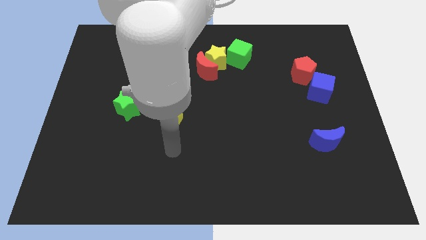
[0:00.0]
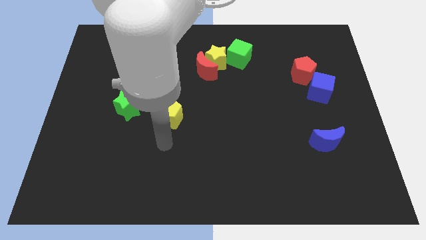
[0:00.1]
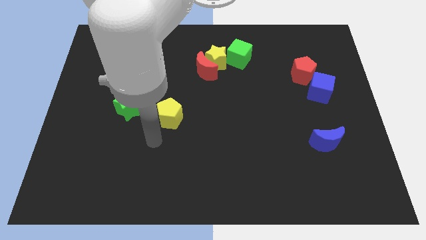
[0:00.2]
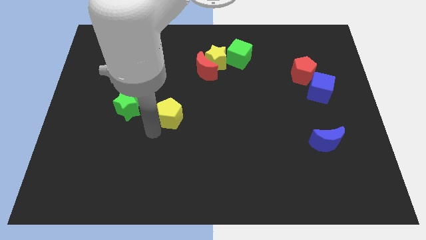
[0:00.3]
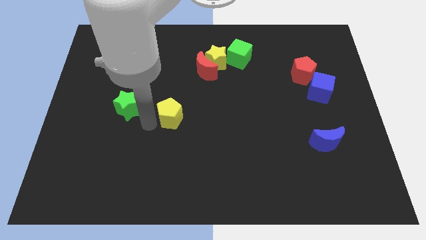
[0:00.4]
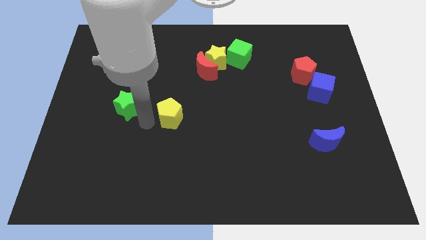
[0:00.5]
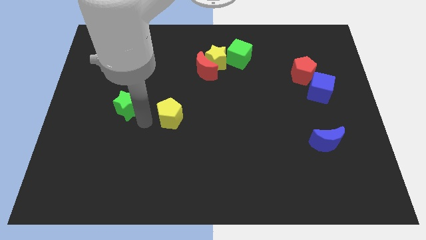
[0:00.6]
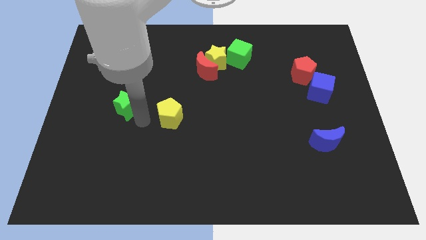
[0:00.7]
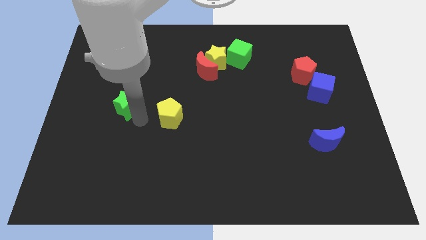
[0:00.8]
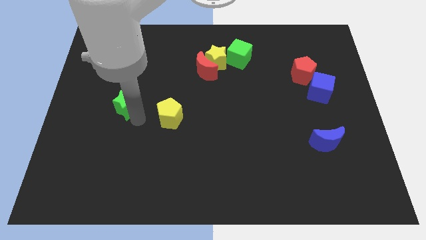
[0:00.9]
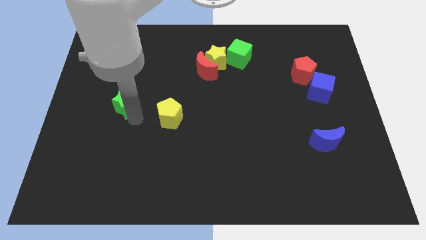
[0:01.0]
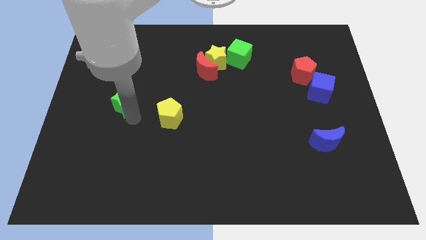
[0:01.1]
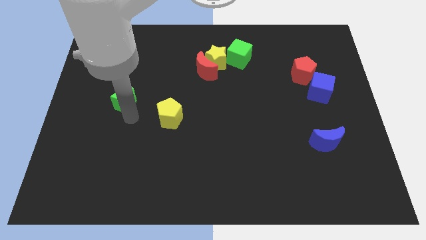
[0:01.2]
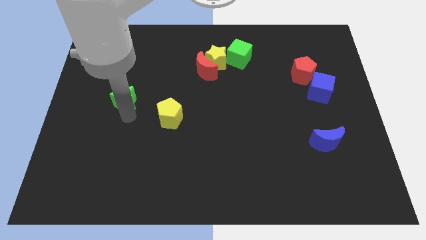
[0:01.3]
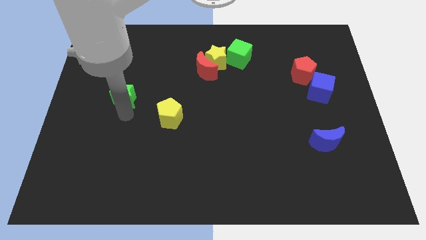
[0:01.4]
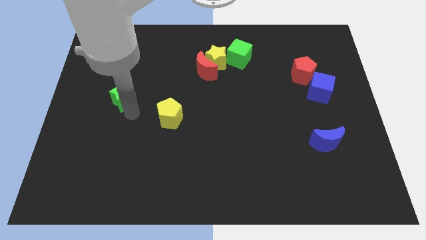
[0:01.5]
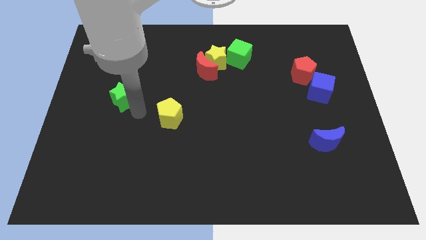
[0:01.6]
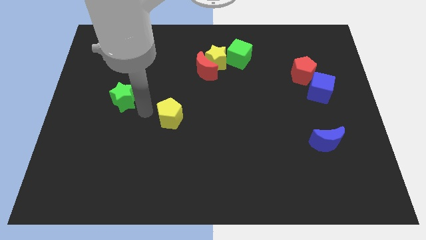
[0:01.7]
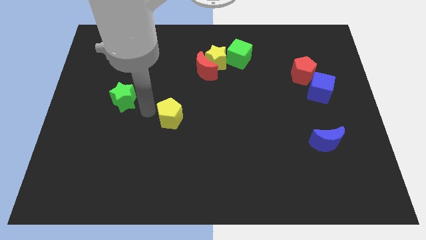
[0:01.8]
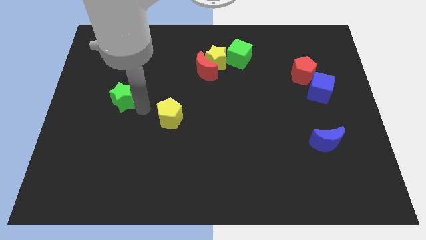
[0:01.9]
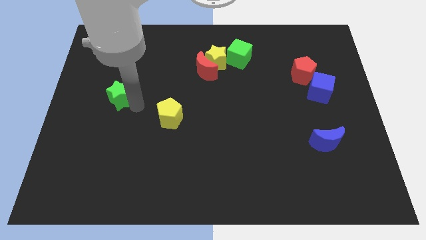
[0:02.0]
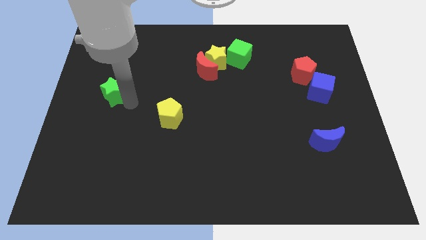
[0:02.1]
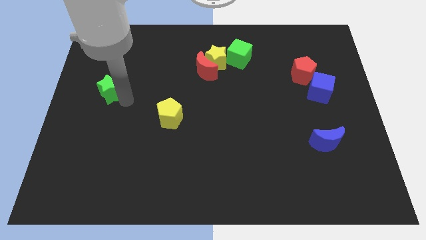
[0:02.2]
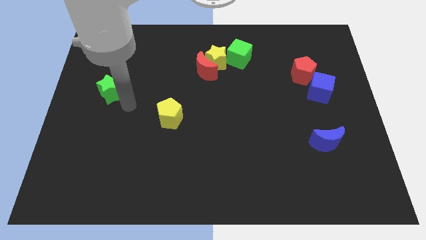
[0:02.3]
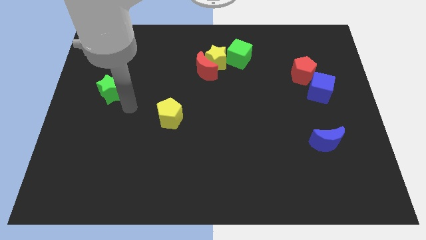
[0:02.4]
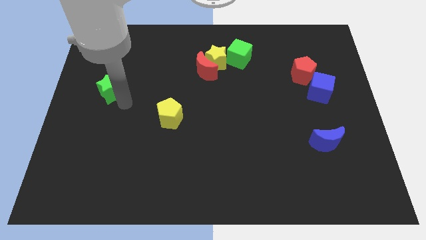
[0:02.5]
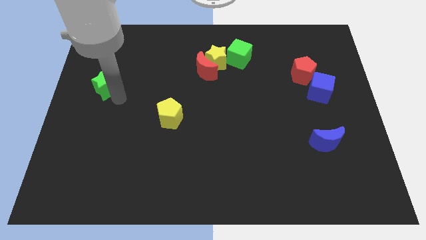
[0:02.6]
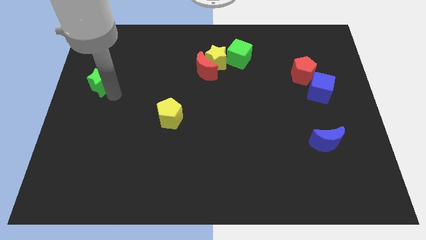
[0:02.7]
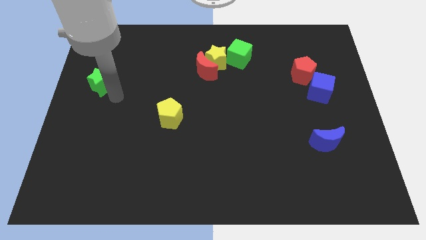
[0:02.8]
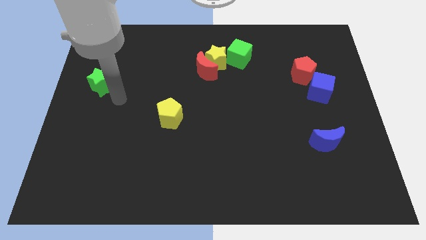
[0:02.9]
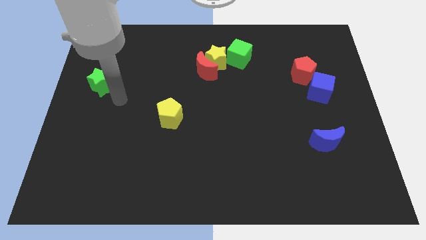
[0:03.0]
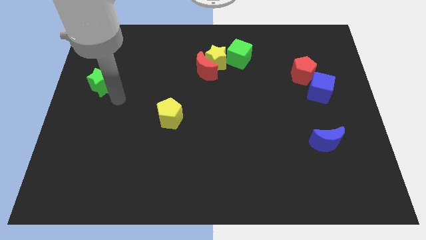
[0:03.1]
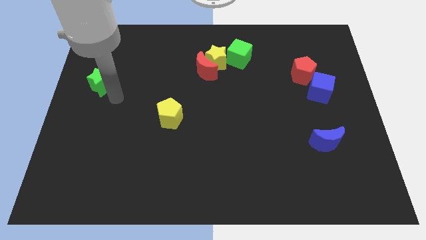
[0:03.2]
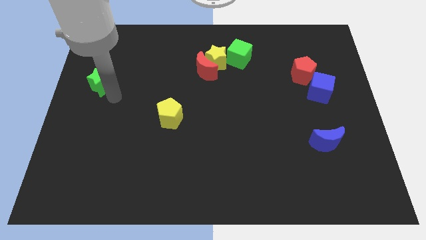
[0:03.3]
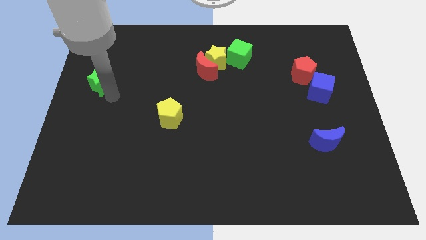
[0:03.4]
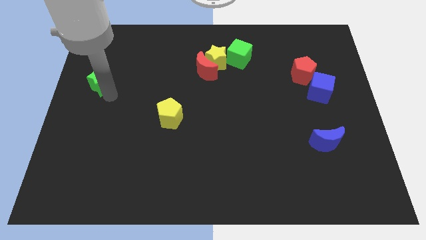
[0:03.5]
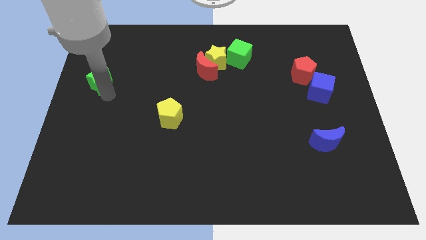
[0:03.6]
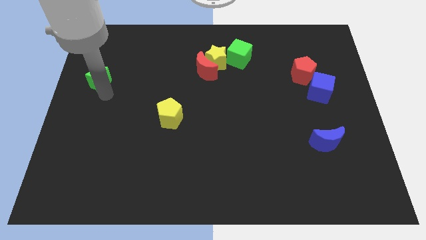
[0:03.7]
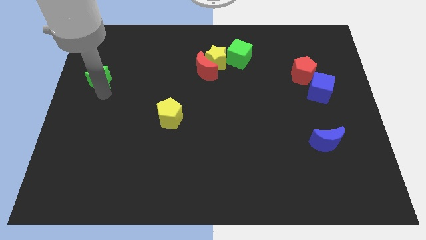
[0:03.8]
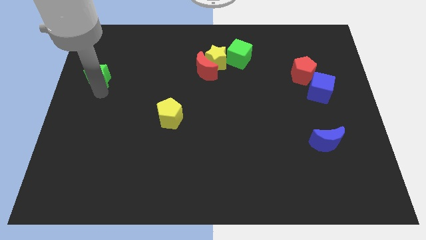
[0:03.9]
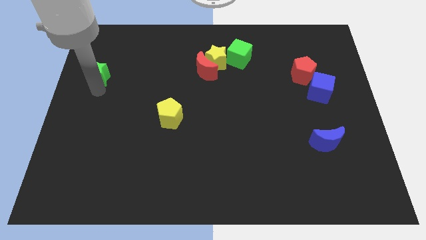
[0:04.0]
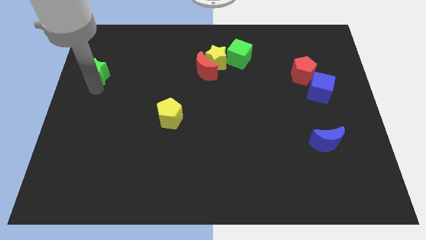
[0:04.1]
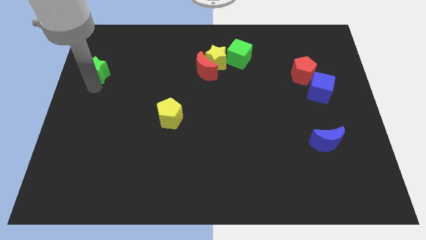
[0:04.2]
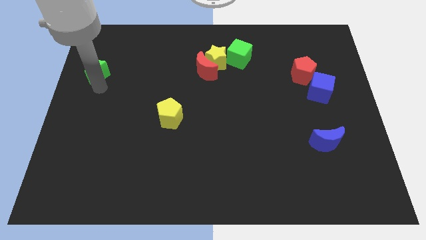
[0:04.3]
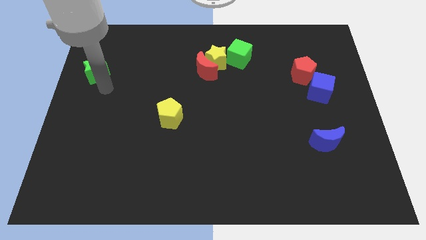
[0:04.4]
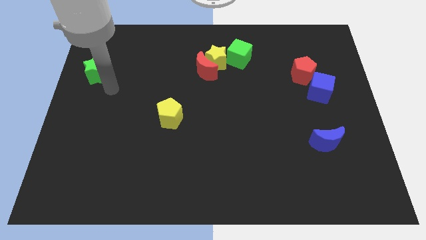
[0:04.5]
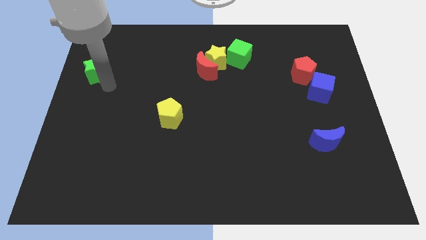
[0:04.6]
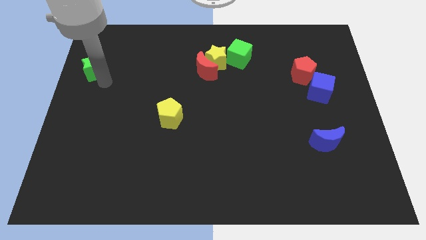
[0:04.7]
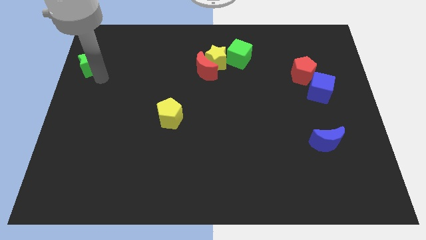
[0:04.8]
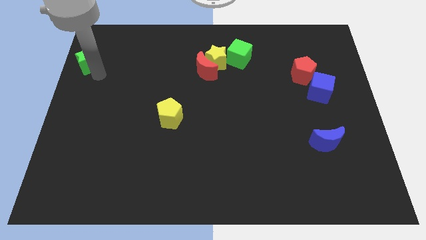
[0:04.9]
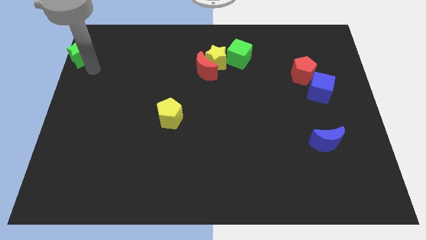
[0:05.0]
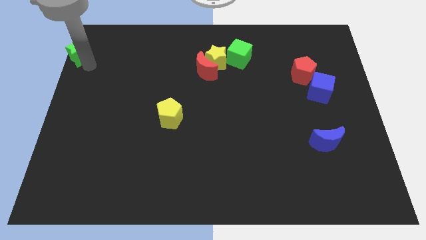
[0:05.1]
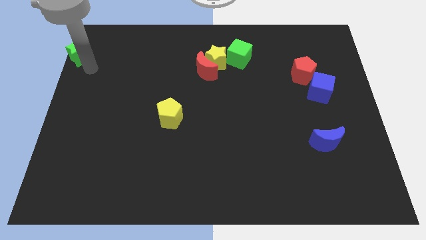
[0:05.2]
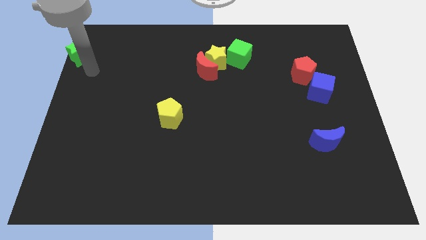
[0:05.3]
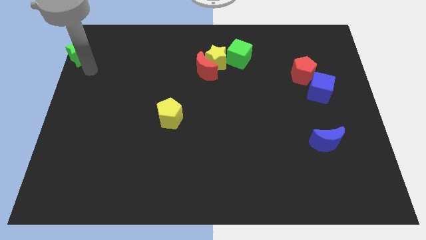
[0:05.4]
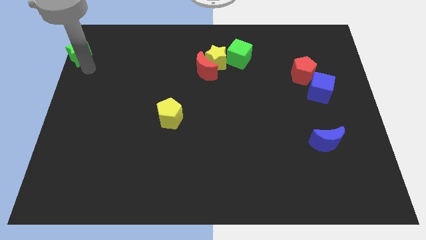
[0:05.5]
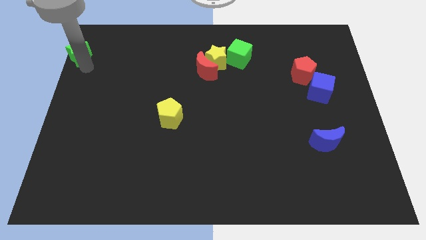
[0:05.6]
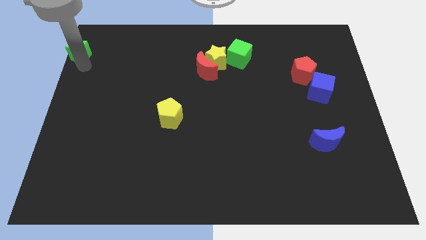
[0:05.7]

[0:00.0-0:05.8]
slide the green star to the top left of the board

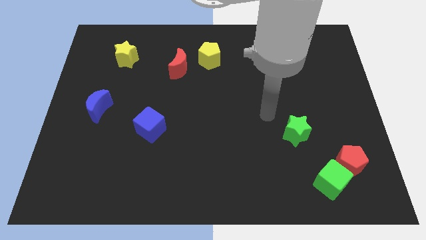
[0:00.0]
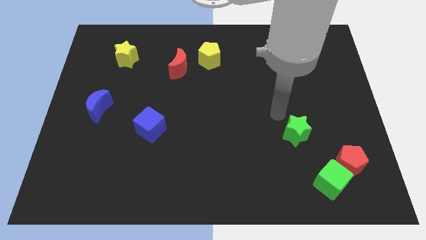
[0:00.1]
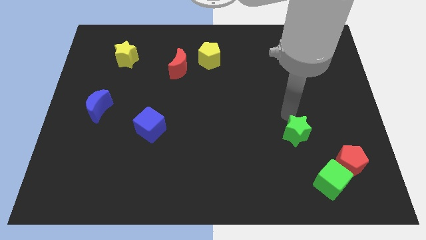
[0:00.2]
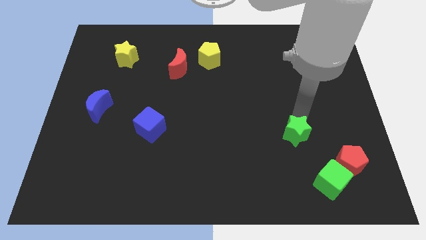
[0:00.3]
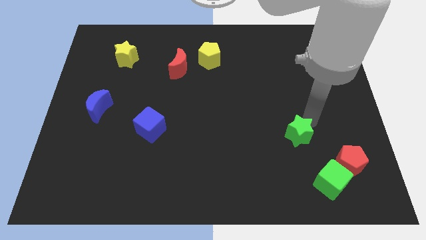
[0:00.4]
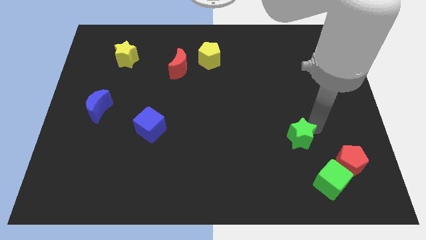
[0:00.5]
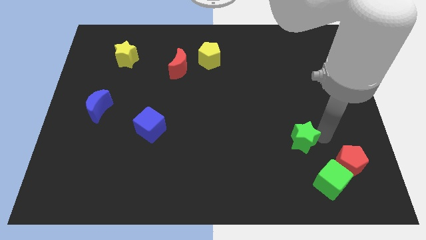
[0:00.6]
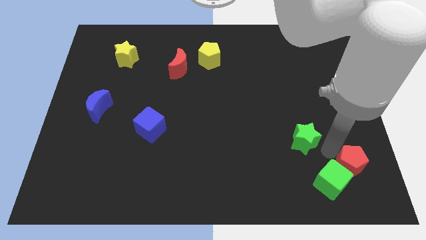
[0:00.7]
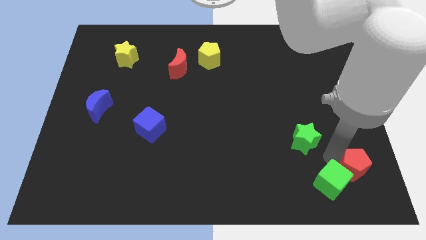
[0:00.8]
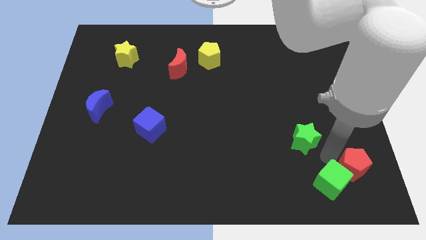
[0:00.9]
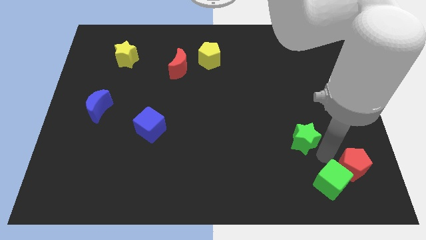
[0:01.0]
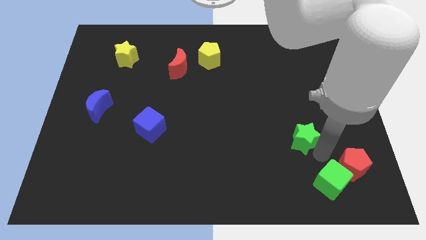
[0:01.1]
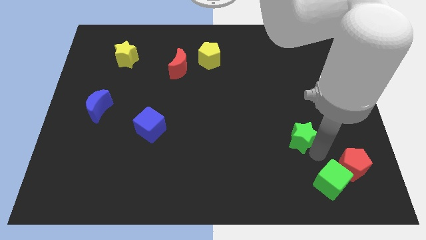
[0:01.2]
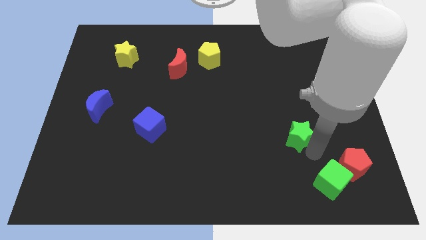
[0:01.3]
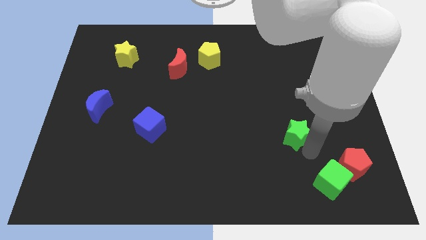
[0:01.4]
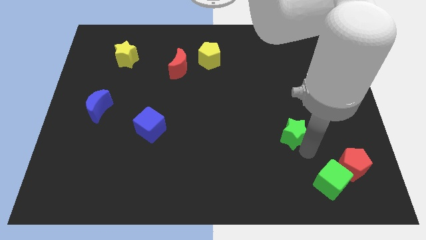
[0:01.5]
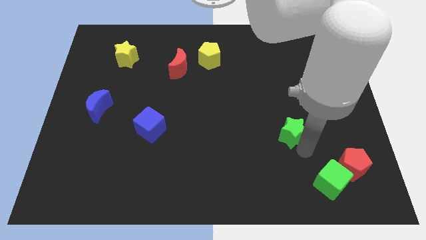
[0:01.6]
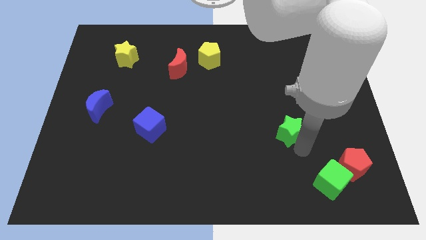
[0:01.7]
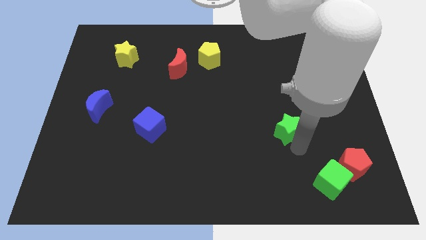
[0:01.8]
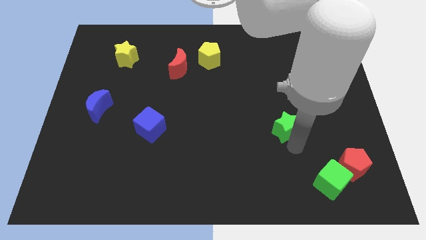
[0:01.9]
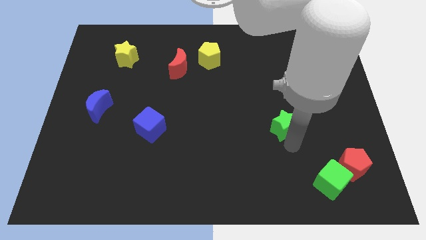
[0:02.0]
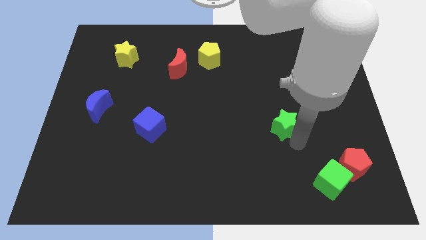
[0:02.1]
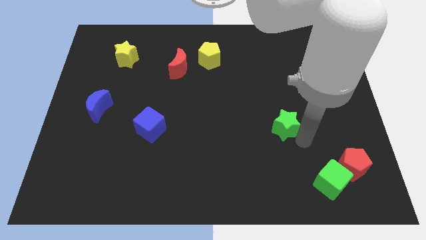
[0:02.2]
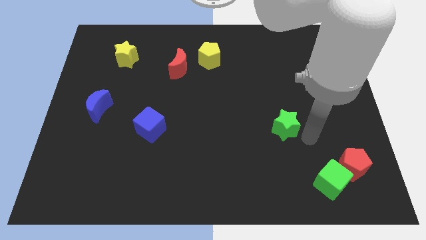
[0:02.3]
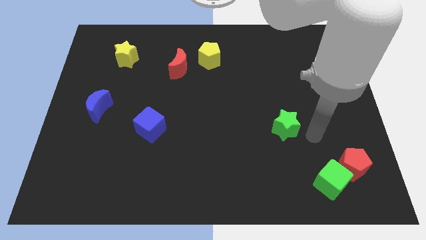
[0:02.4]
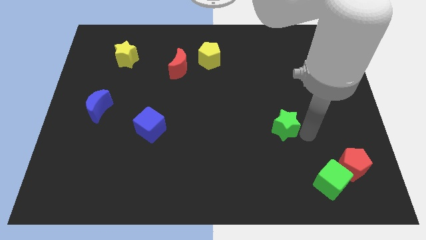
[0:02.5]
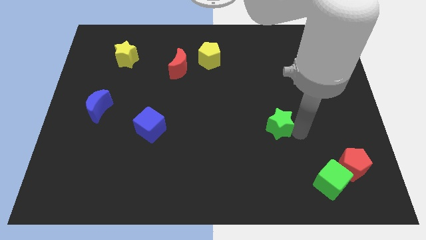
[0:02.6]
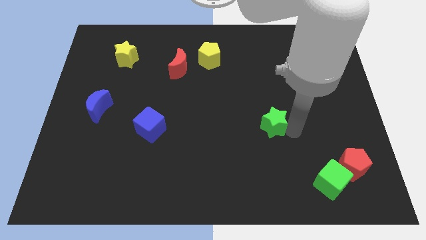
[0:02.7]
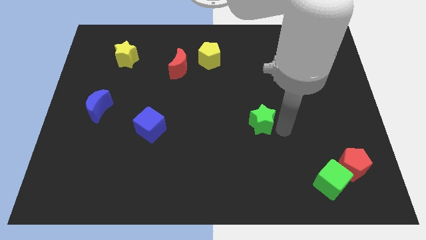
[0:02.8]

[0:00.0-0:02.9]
put the green star to the middle
